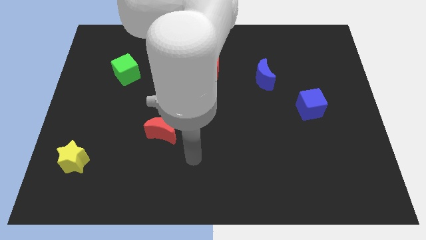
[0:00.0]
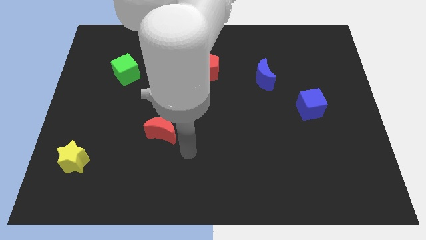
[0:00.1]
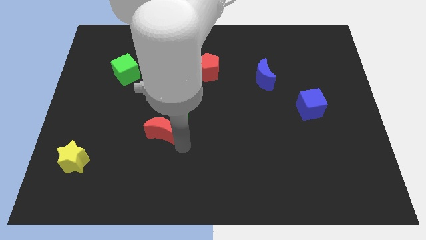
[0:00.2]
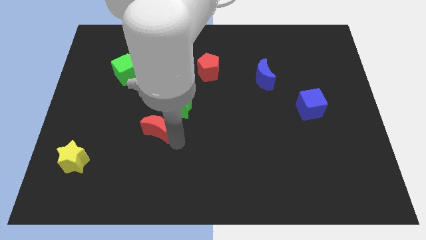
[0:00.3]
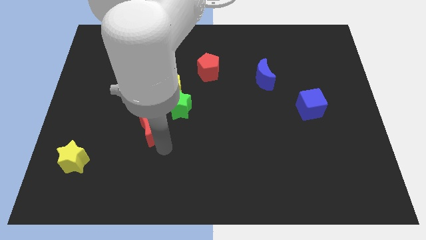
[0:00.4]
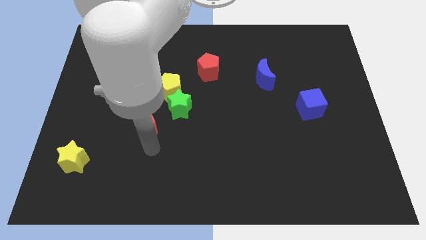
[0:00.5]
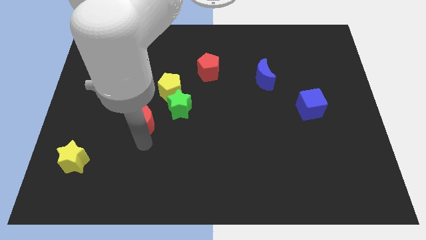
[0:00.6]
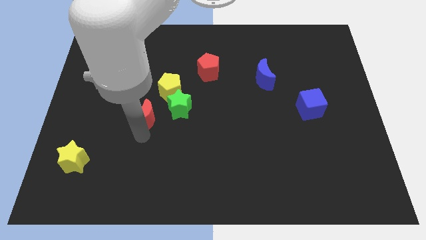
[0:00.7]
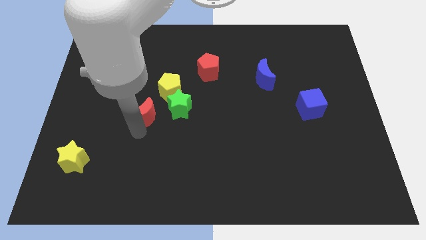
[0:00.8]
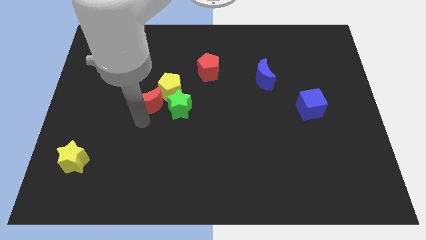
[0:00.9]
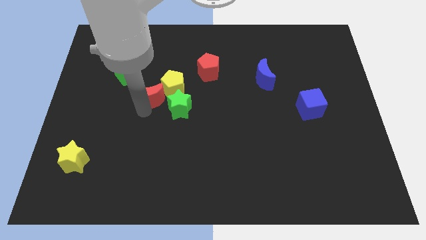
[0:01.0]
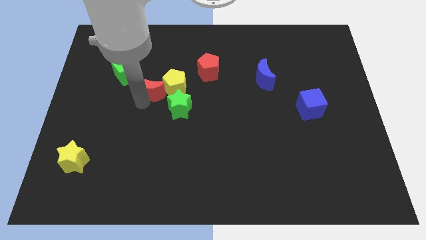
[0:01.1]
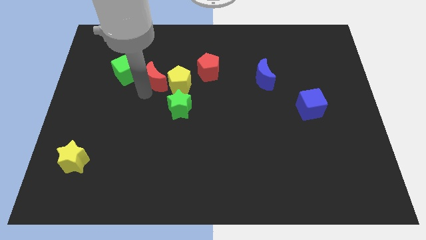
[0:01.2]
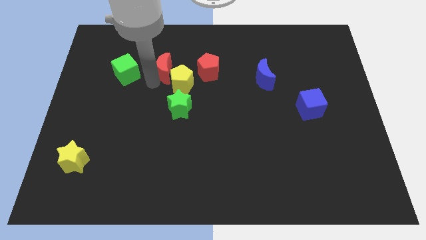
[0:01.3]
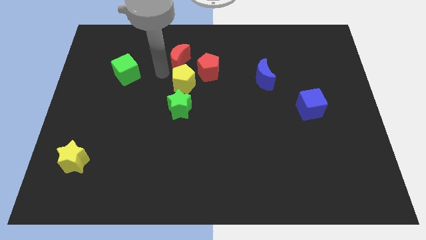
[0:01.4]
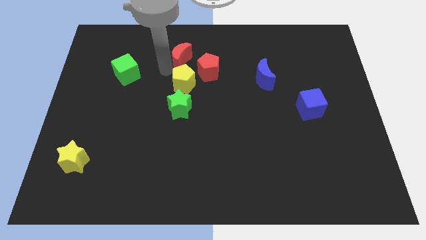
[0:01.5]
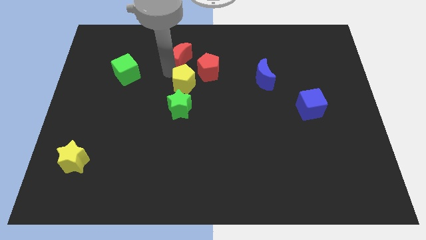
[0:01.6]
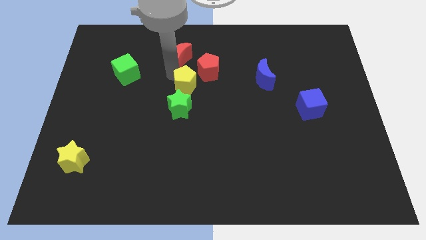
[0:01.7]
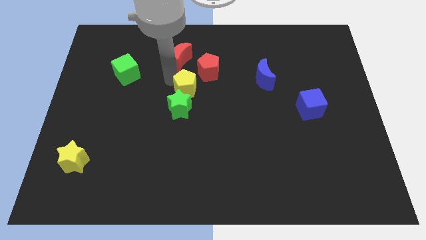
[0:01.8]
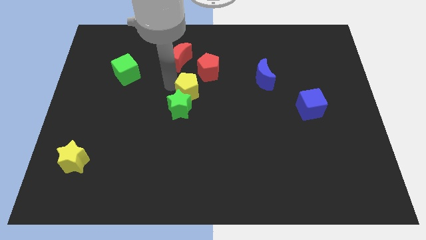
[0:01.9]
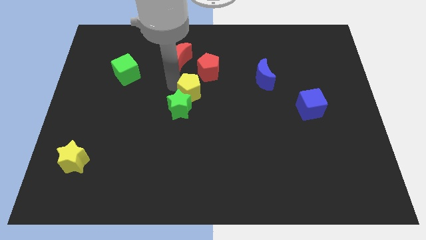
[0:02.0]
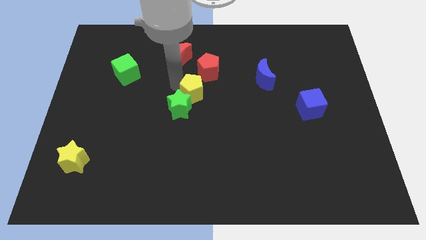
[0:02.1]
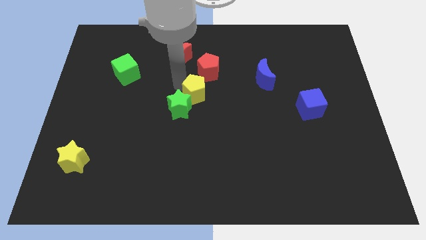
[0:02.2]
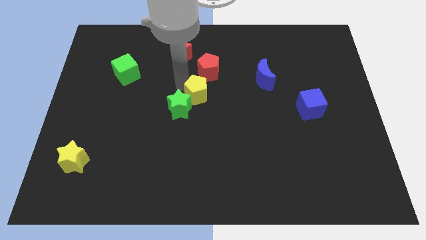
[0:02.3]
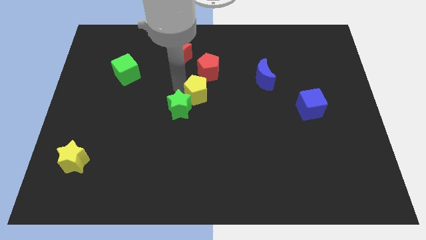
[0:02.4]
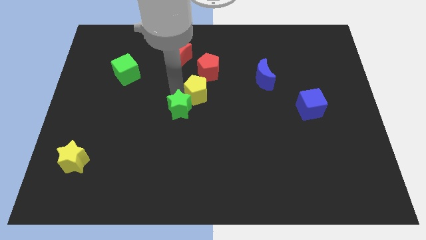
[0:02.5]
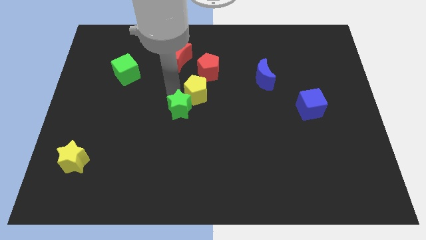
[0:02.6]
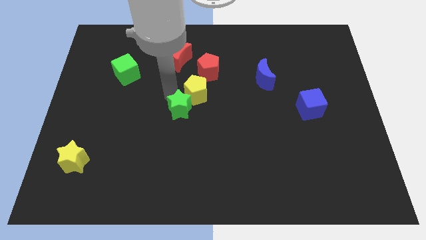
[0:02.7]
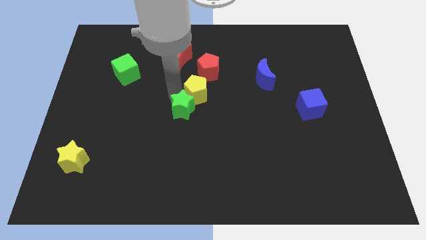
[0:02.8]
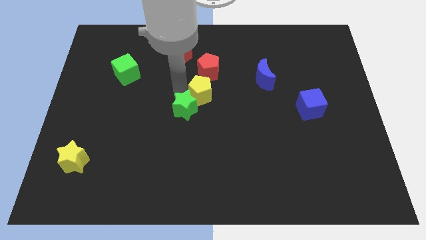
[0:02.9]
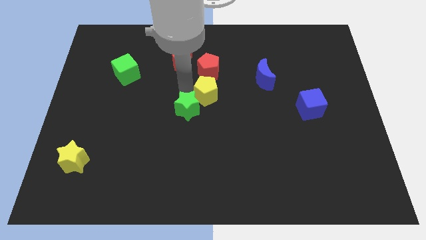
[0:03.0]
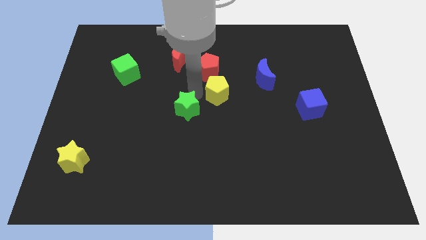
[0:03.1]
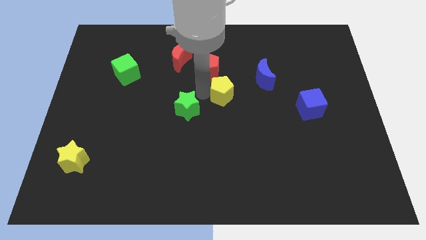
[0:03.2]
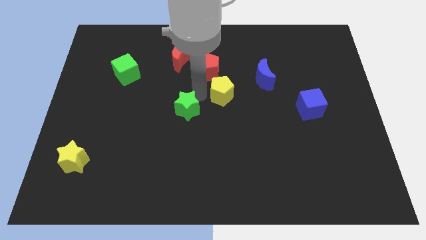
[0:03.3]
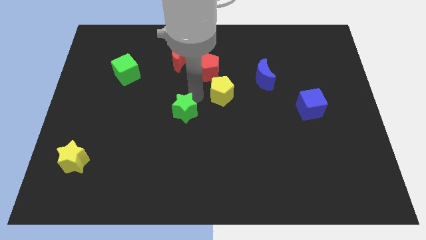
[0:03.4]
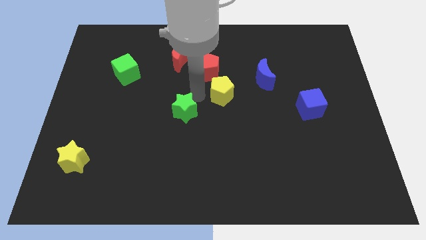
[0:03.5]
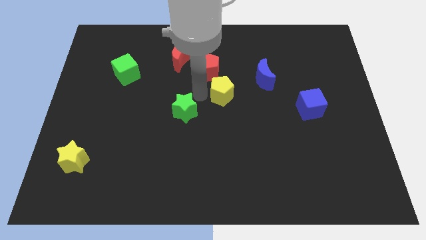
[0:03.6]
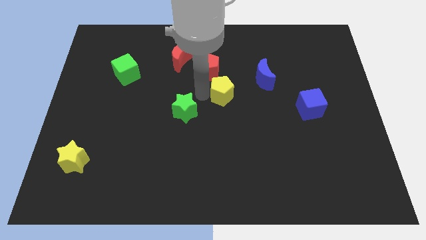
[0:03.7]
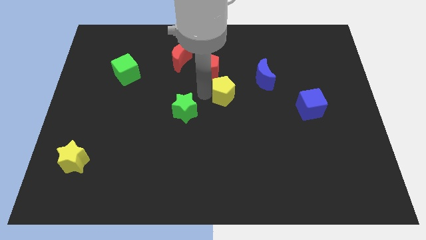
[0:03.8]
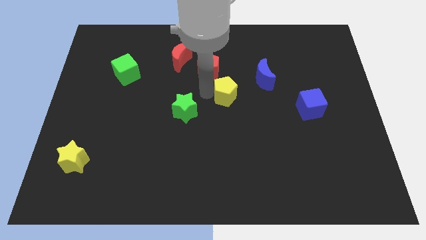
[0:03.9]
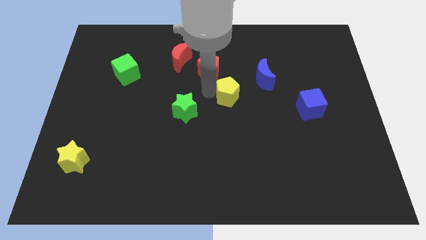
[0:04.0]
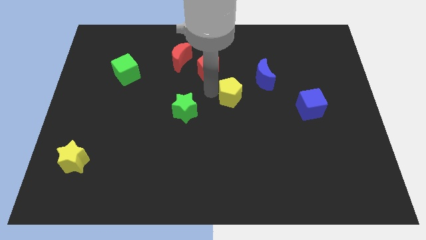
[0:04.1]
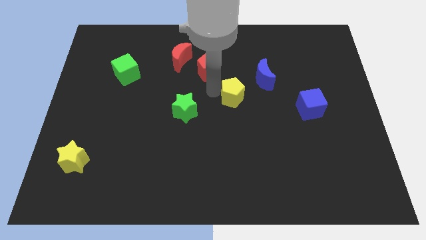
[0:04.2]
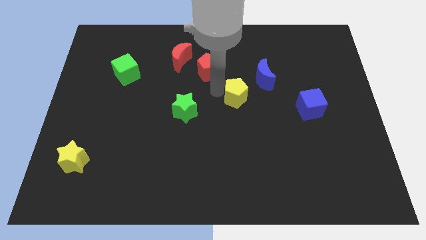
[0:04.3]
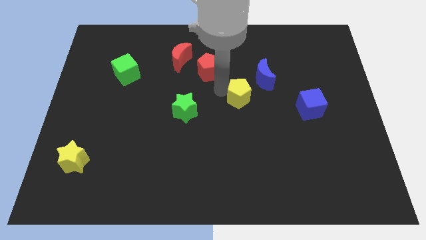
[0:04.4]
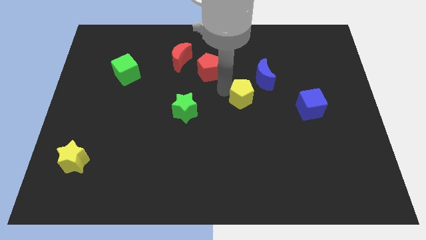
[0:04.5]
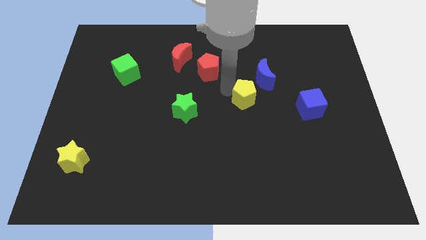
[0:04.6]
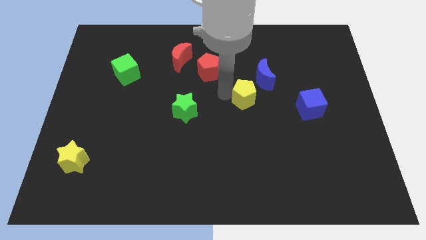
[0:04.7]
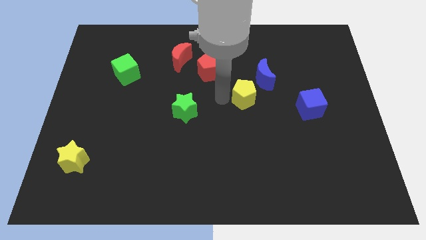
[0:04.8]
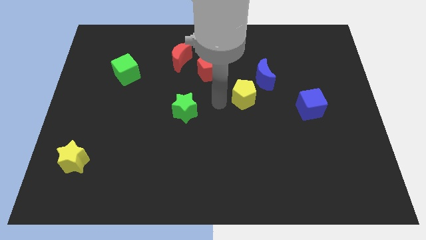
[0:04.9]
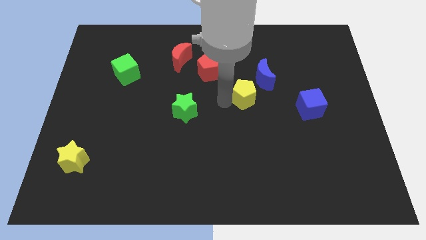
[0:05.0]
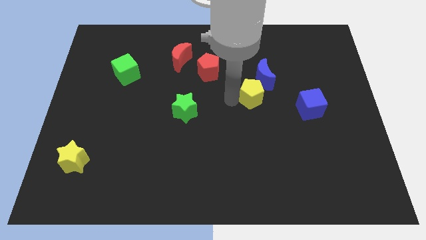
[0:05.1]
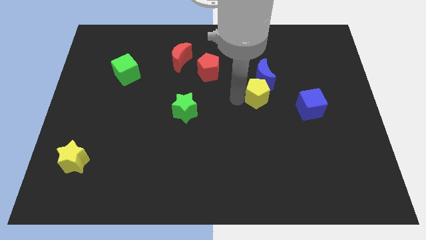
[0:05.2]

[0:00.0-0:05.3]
push the yellow pentagon to the right

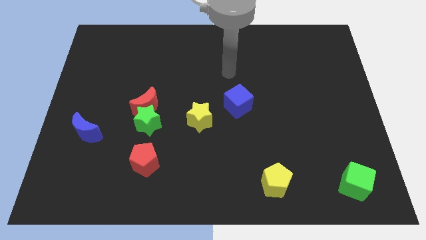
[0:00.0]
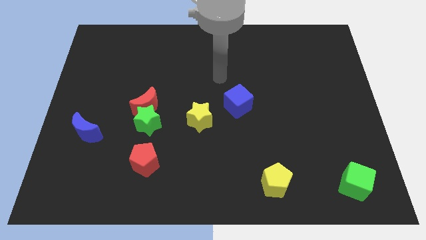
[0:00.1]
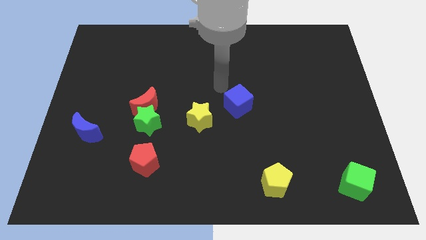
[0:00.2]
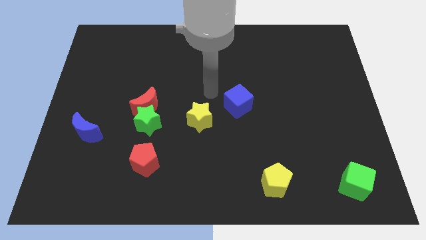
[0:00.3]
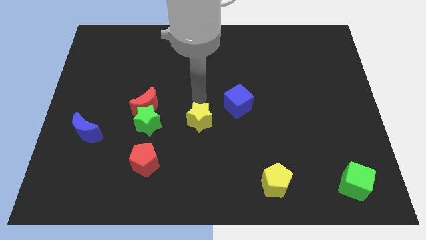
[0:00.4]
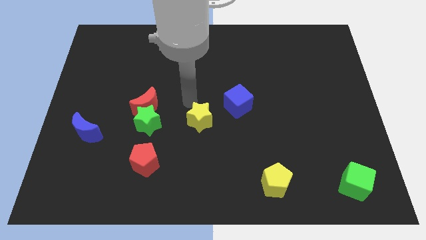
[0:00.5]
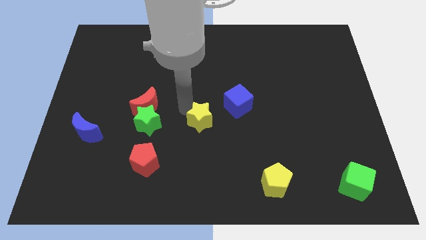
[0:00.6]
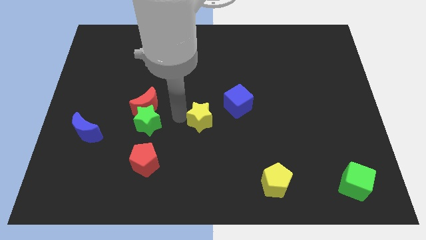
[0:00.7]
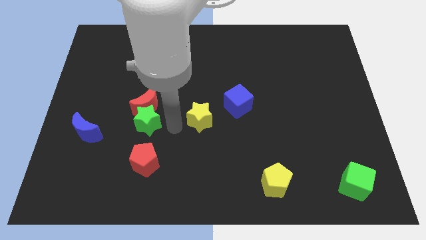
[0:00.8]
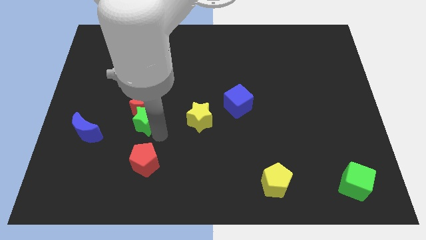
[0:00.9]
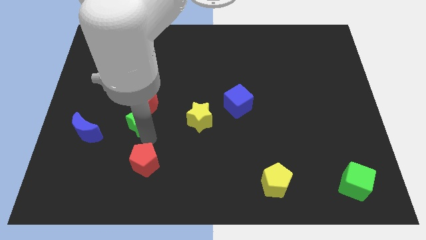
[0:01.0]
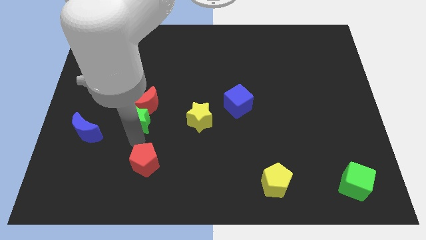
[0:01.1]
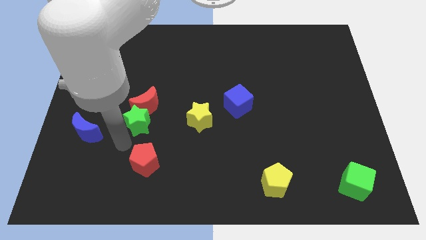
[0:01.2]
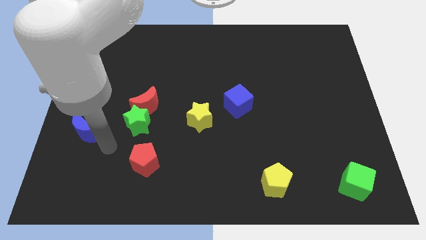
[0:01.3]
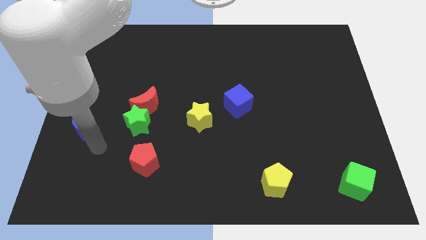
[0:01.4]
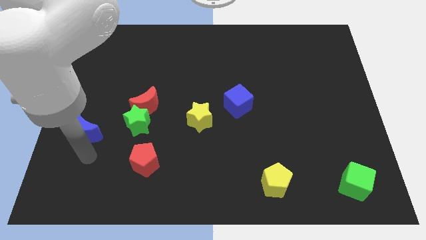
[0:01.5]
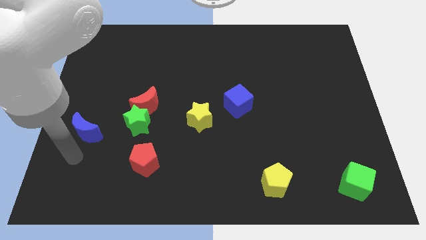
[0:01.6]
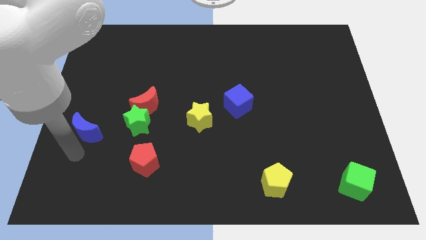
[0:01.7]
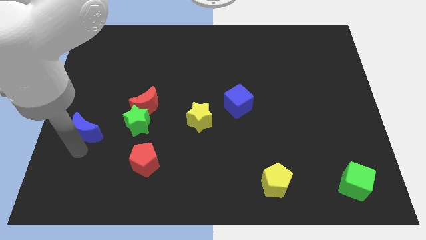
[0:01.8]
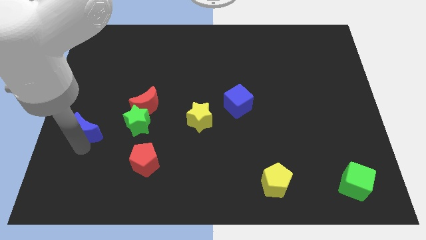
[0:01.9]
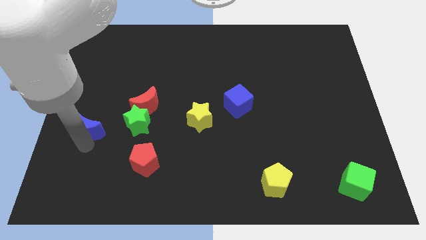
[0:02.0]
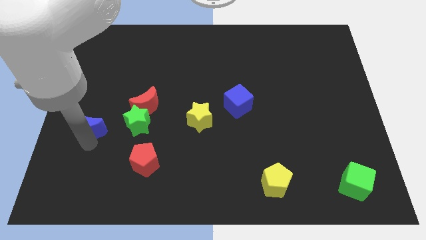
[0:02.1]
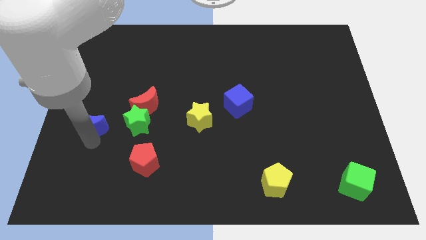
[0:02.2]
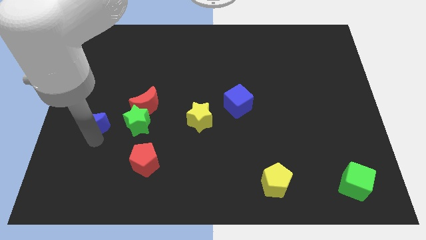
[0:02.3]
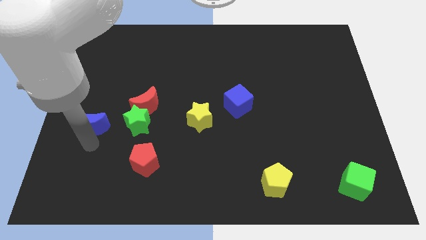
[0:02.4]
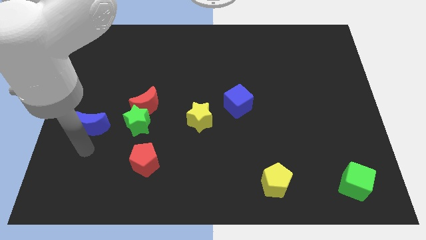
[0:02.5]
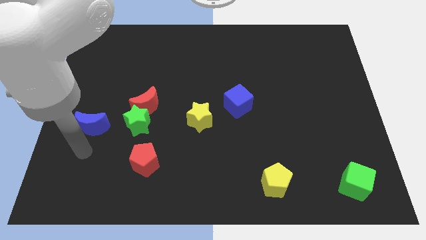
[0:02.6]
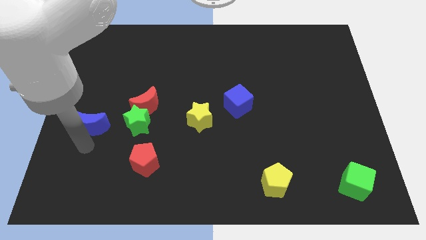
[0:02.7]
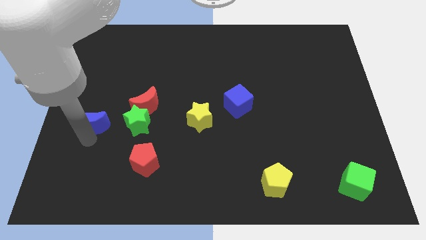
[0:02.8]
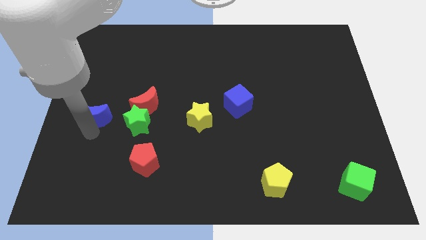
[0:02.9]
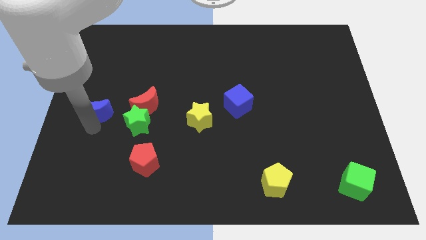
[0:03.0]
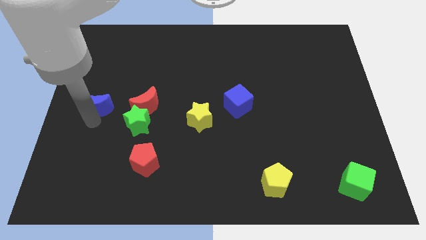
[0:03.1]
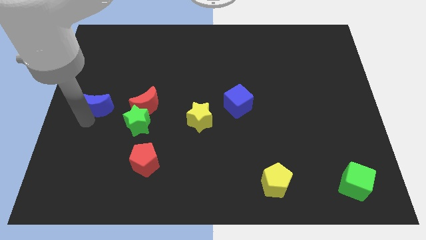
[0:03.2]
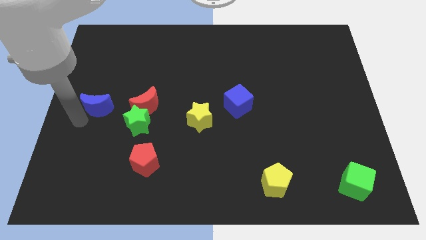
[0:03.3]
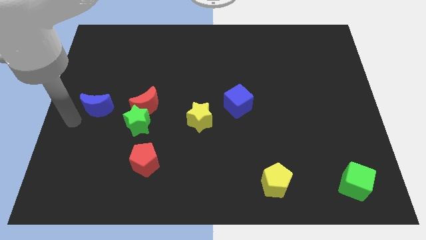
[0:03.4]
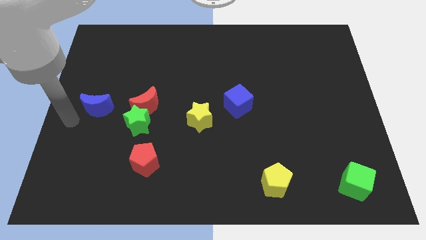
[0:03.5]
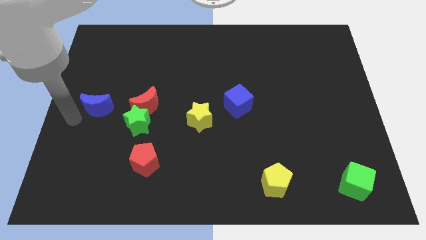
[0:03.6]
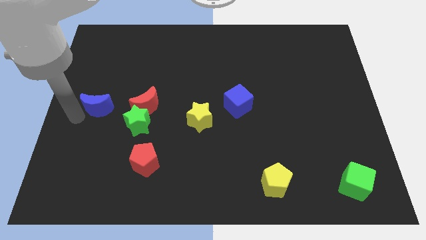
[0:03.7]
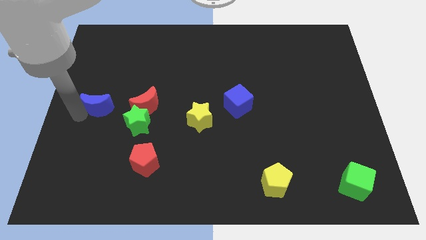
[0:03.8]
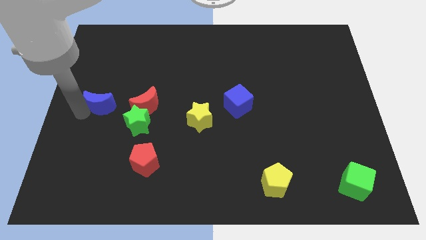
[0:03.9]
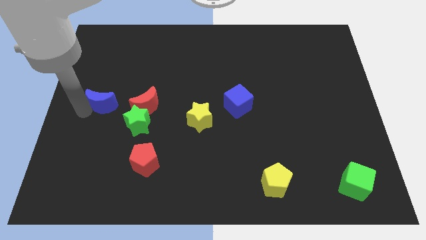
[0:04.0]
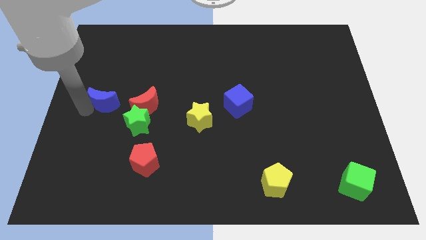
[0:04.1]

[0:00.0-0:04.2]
slightly move the blue moon upwards and then to the right
